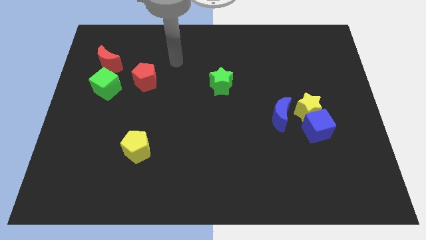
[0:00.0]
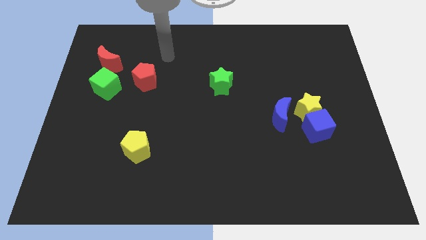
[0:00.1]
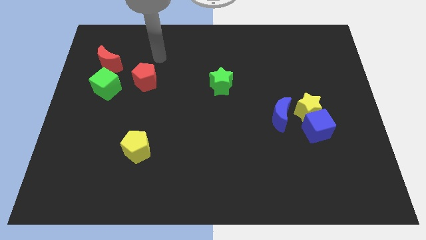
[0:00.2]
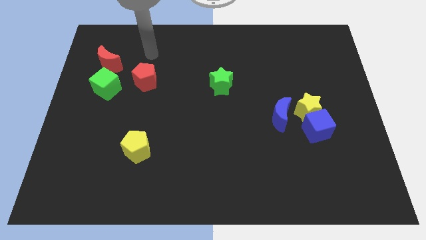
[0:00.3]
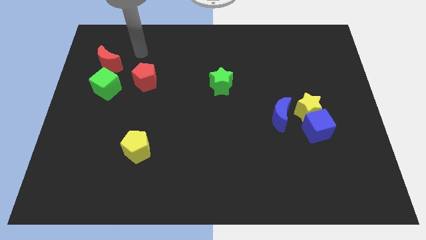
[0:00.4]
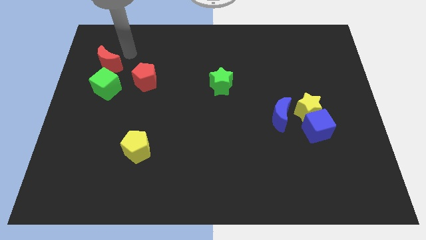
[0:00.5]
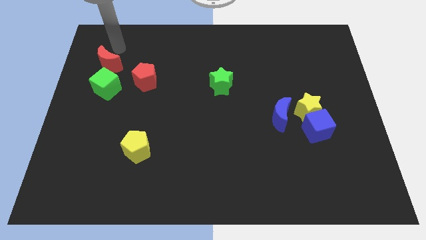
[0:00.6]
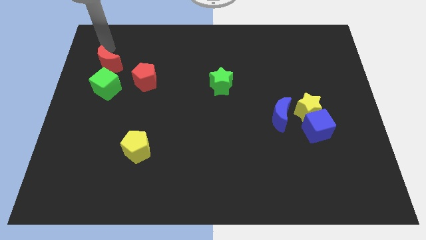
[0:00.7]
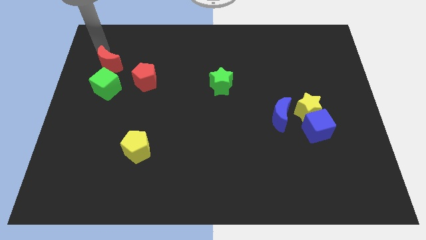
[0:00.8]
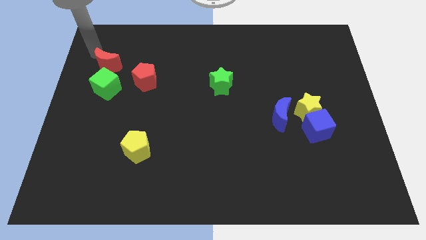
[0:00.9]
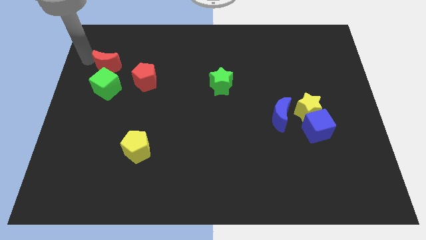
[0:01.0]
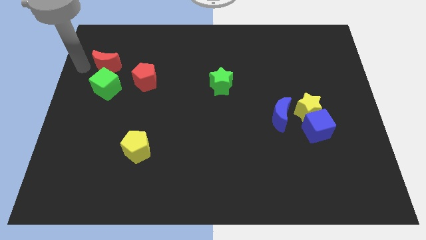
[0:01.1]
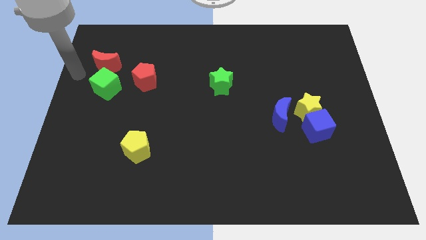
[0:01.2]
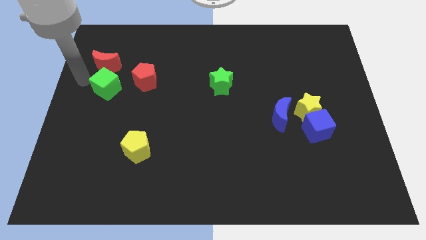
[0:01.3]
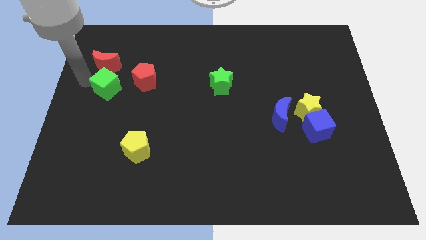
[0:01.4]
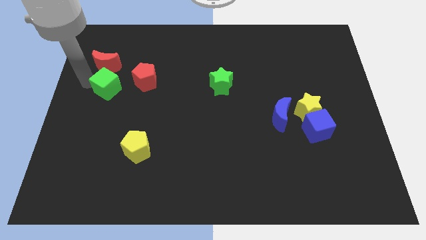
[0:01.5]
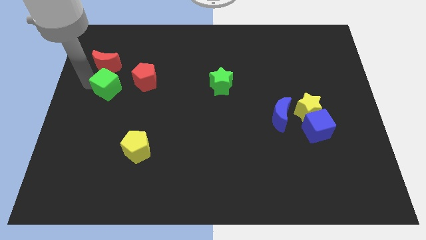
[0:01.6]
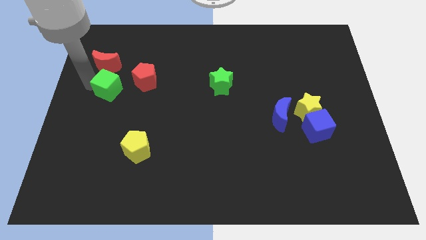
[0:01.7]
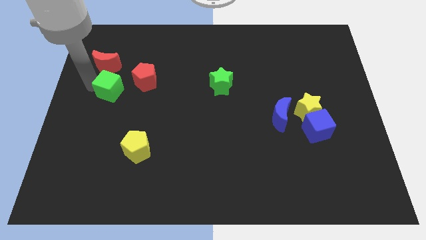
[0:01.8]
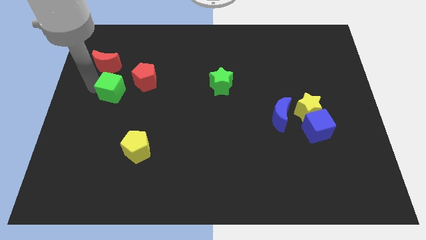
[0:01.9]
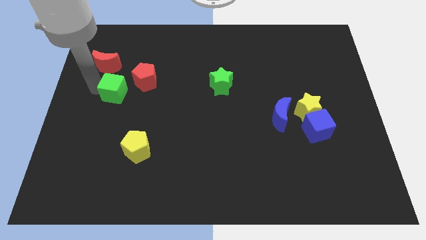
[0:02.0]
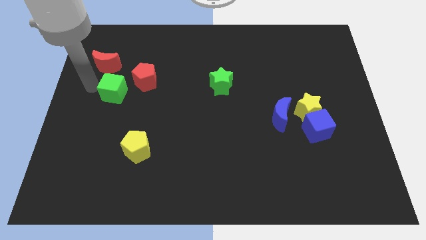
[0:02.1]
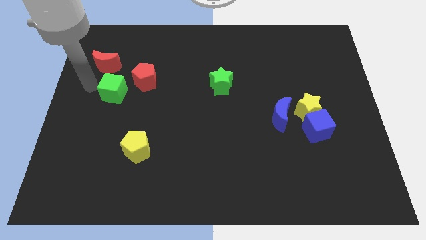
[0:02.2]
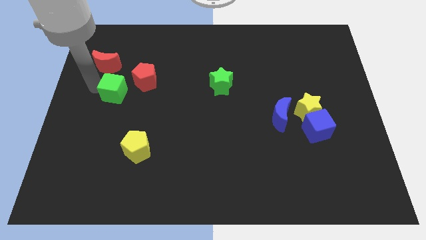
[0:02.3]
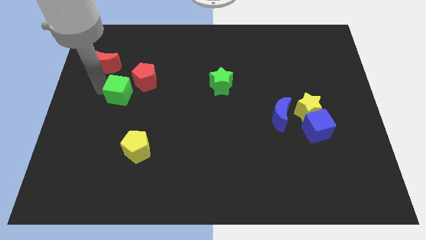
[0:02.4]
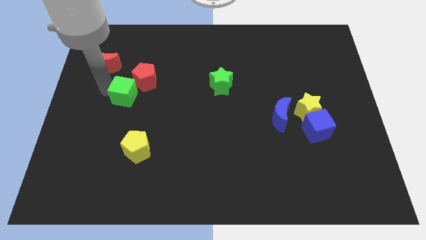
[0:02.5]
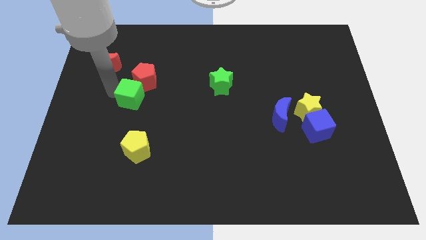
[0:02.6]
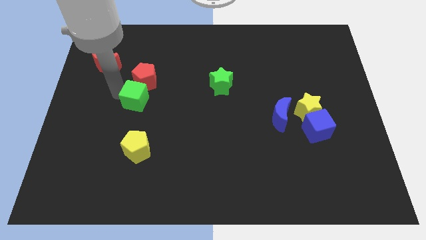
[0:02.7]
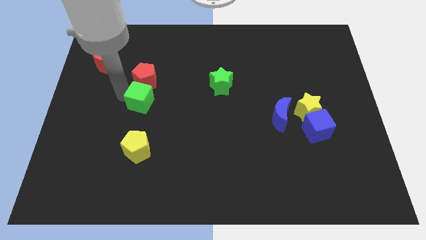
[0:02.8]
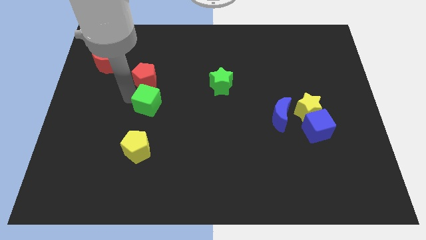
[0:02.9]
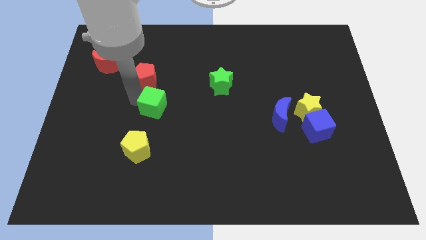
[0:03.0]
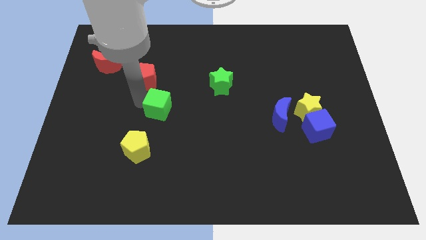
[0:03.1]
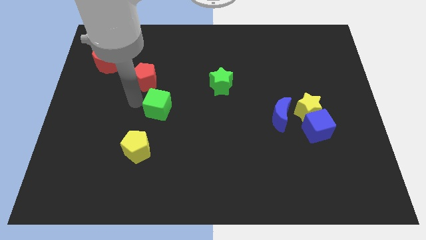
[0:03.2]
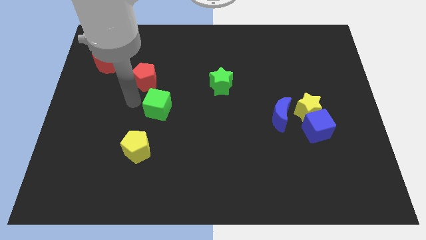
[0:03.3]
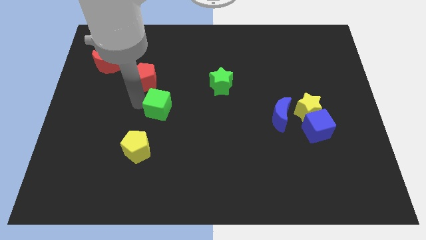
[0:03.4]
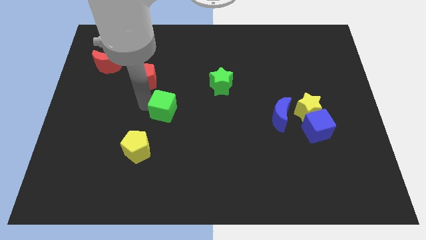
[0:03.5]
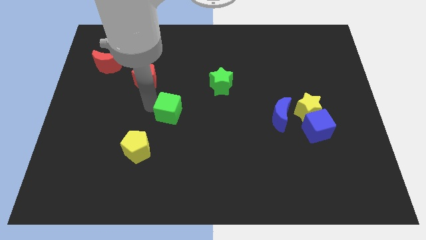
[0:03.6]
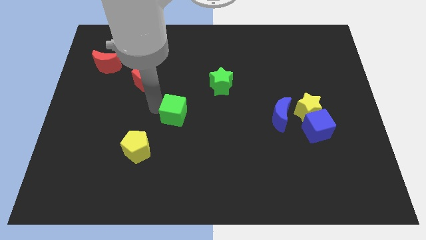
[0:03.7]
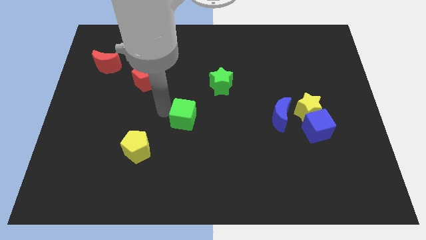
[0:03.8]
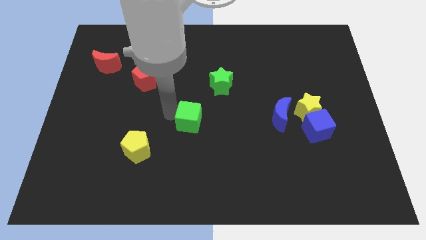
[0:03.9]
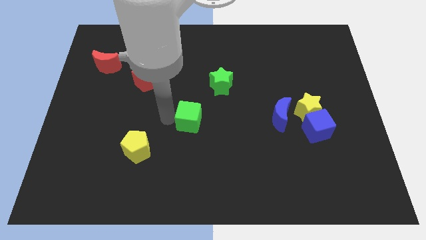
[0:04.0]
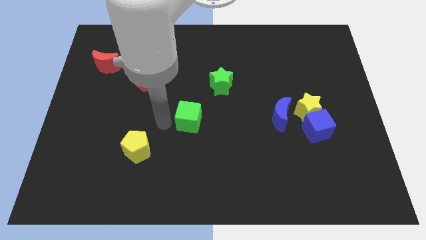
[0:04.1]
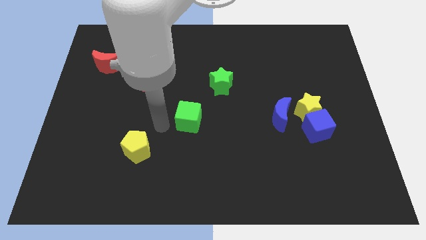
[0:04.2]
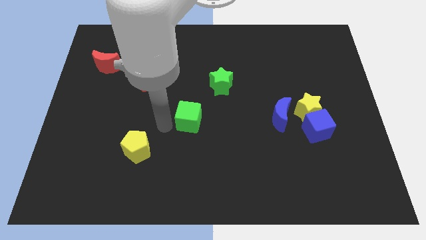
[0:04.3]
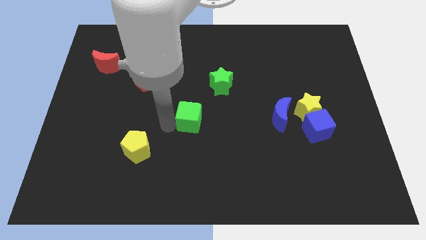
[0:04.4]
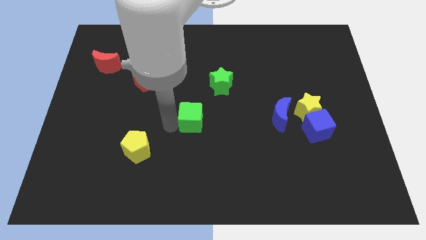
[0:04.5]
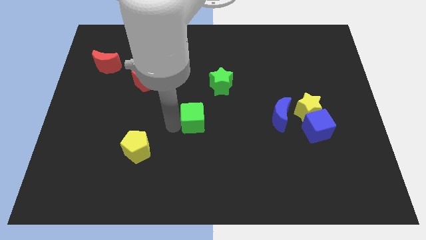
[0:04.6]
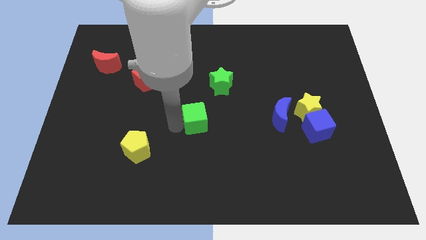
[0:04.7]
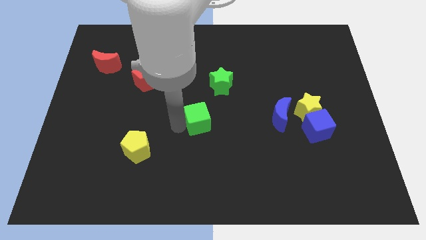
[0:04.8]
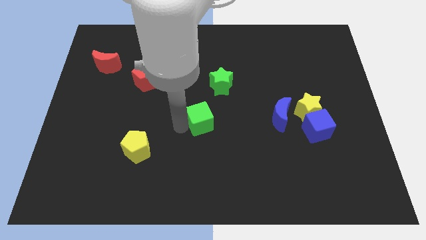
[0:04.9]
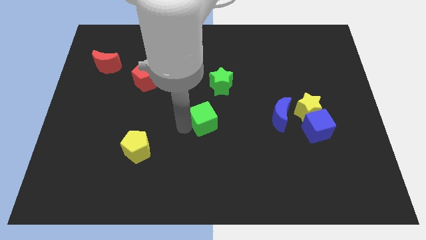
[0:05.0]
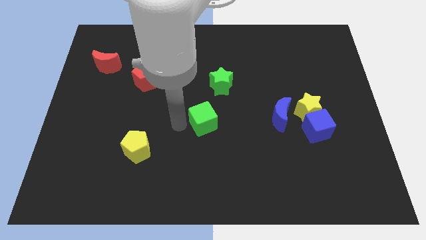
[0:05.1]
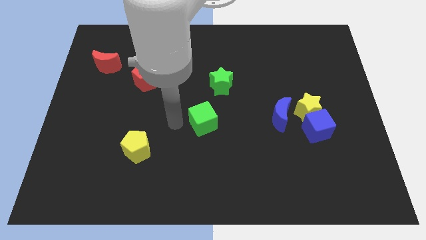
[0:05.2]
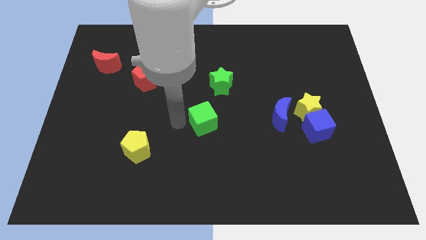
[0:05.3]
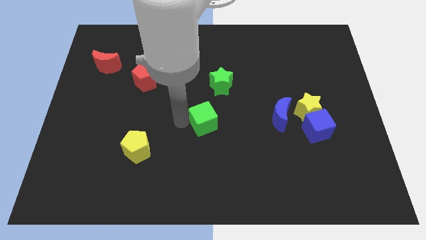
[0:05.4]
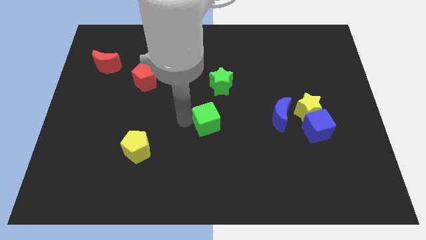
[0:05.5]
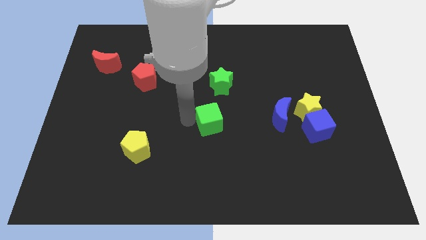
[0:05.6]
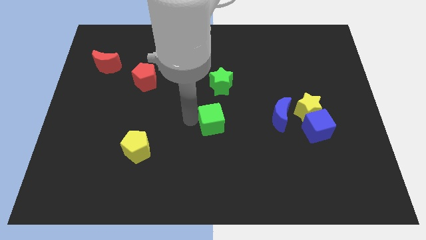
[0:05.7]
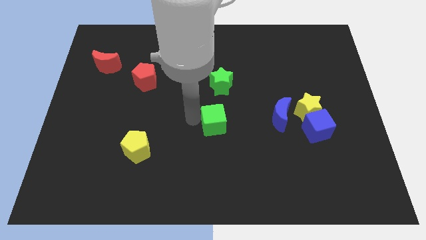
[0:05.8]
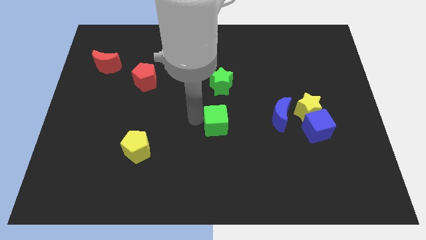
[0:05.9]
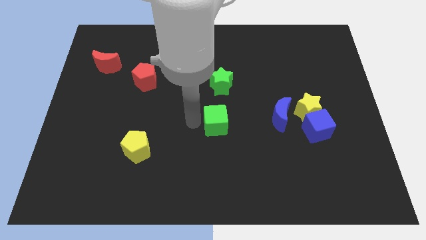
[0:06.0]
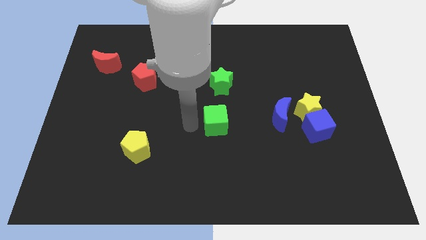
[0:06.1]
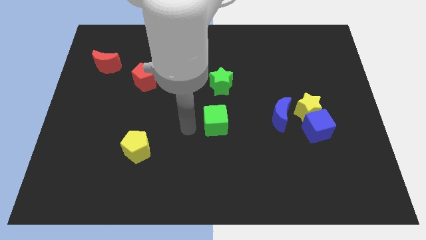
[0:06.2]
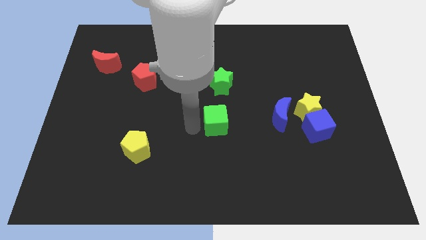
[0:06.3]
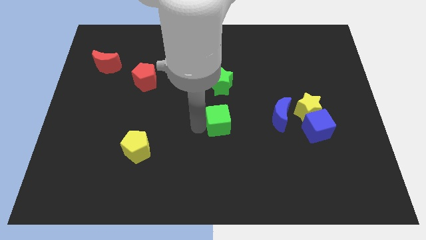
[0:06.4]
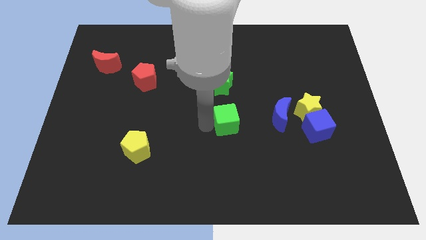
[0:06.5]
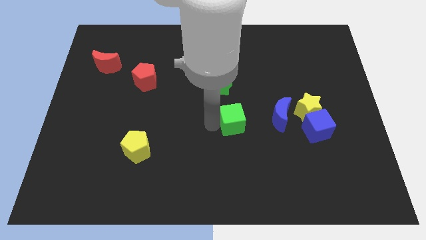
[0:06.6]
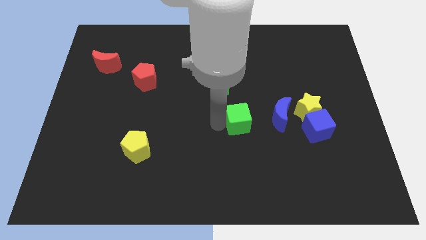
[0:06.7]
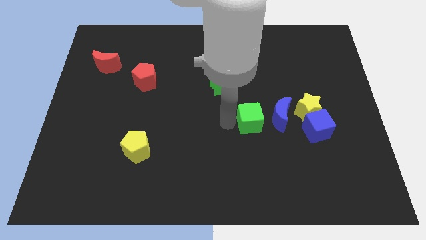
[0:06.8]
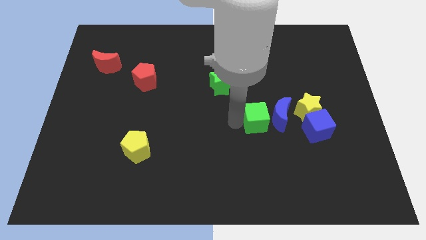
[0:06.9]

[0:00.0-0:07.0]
slide the green cube to the blue moon

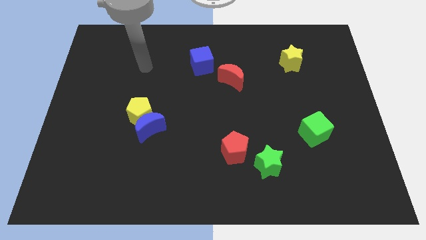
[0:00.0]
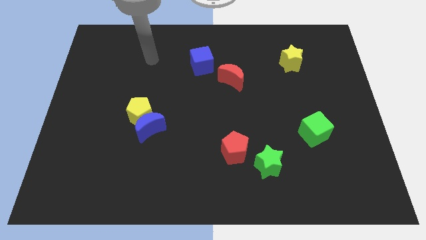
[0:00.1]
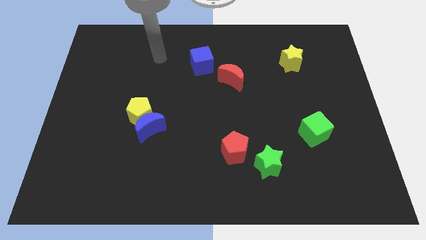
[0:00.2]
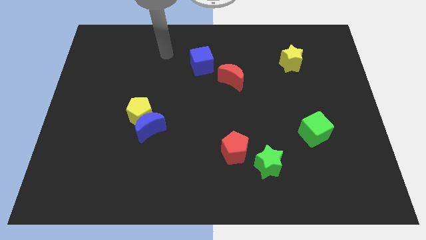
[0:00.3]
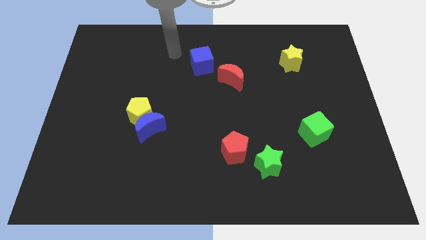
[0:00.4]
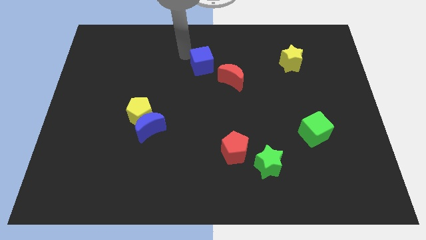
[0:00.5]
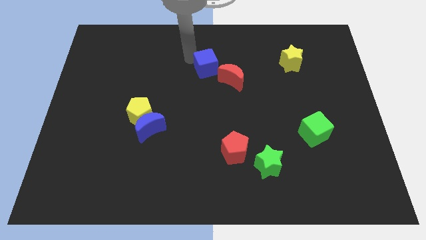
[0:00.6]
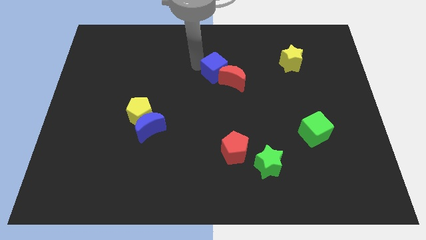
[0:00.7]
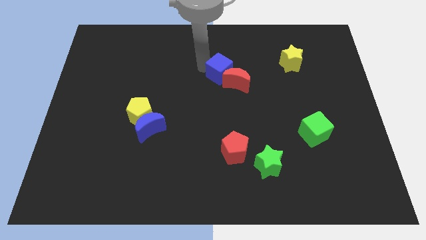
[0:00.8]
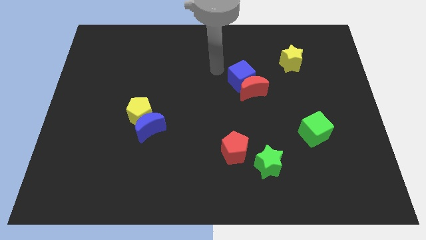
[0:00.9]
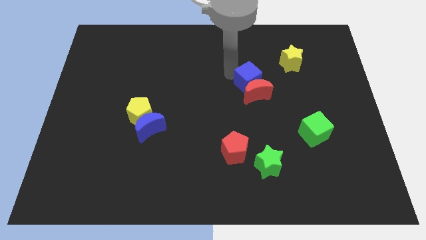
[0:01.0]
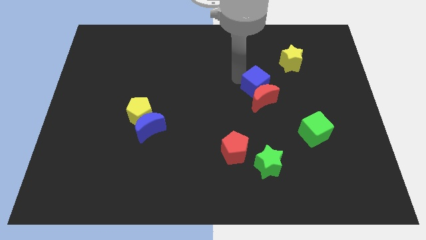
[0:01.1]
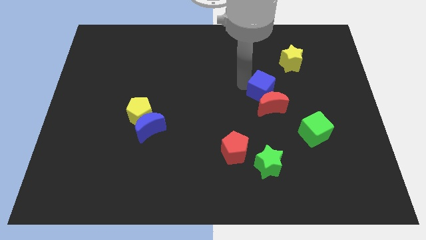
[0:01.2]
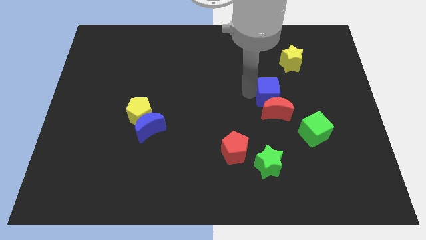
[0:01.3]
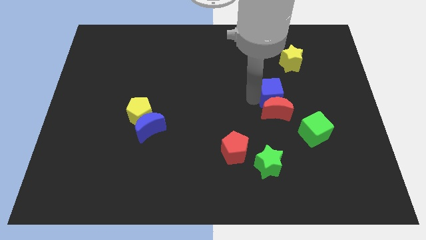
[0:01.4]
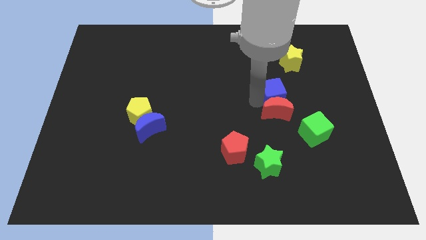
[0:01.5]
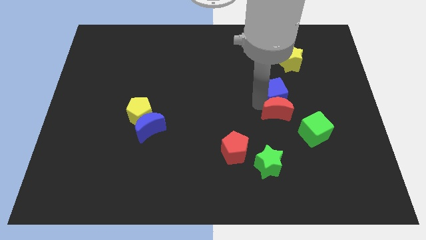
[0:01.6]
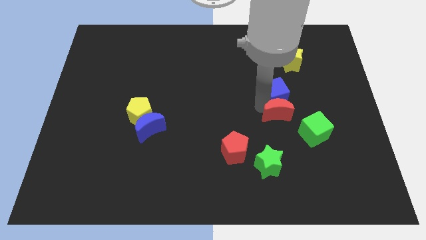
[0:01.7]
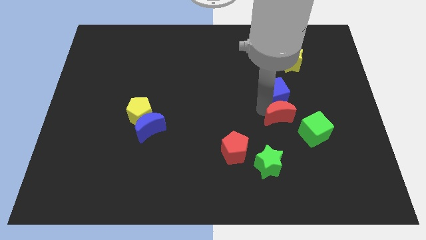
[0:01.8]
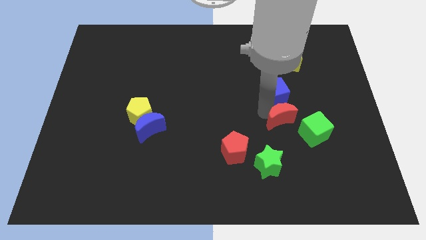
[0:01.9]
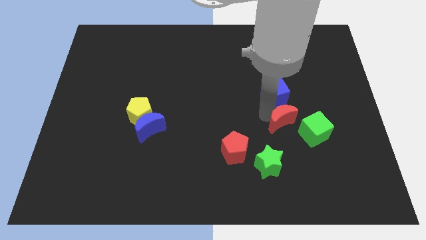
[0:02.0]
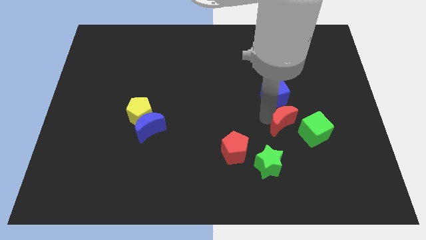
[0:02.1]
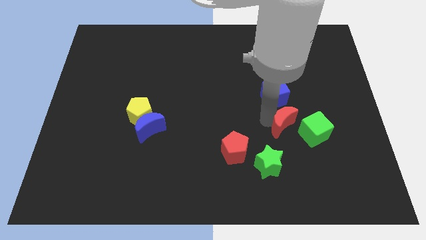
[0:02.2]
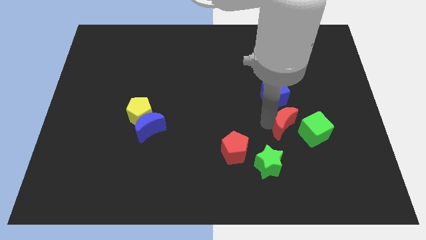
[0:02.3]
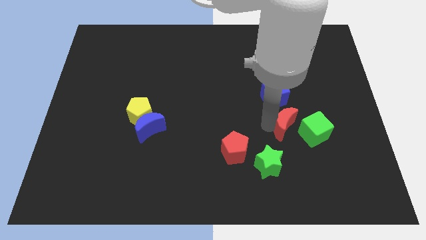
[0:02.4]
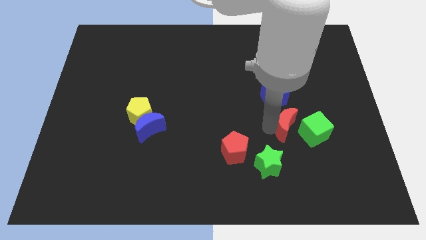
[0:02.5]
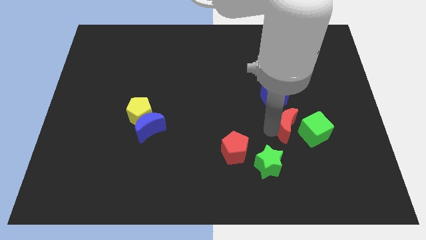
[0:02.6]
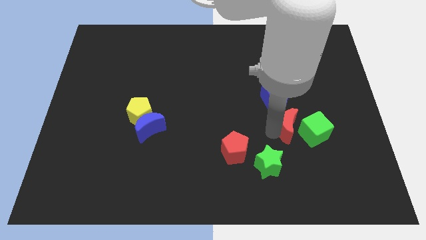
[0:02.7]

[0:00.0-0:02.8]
slide the red moon to the green cube
